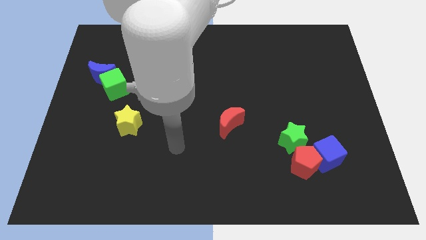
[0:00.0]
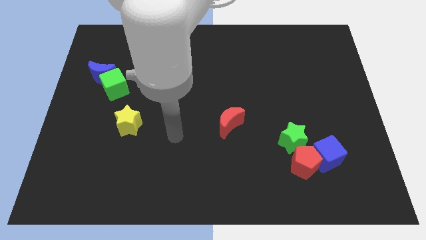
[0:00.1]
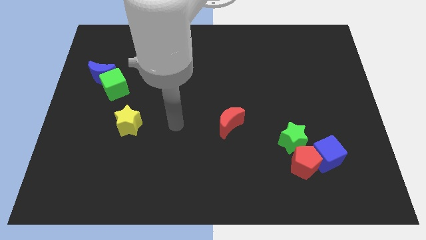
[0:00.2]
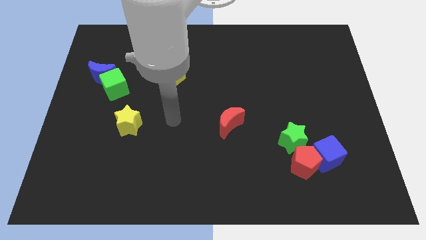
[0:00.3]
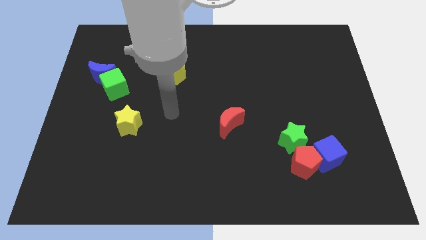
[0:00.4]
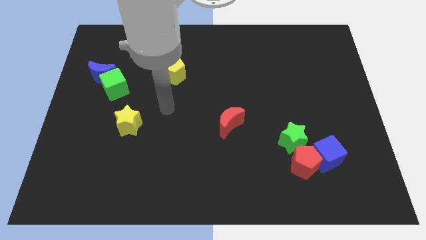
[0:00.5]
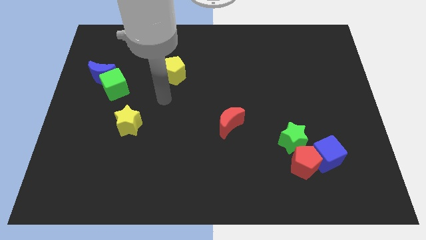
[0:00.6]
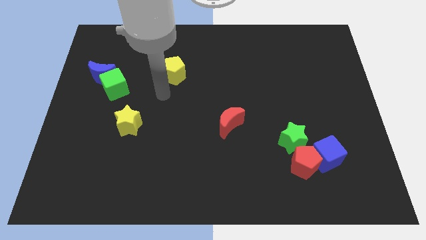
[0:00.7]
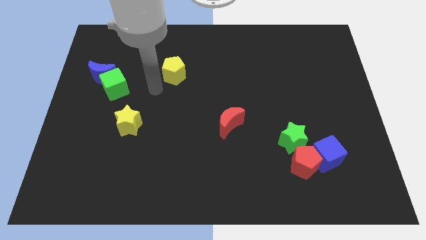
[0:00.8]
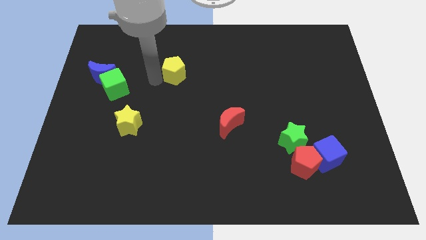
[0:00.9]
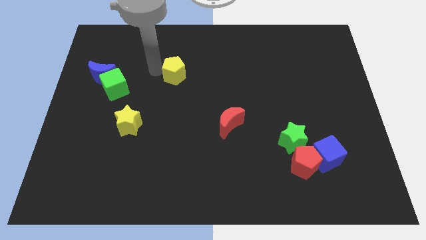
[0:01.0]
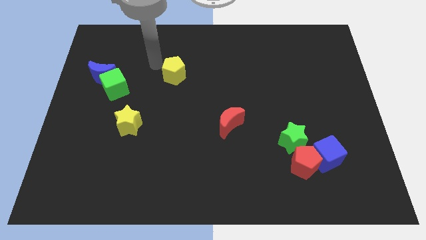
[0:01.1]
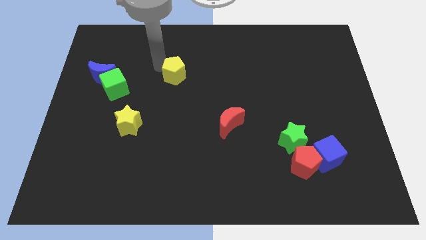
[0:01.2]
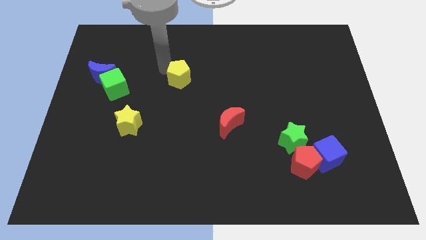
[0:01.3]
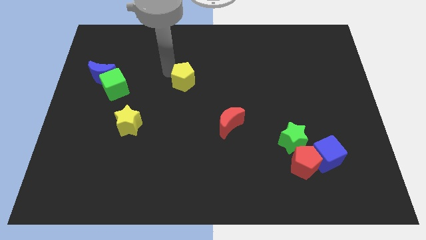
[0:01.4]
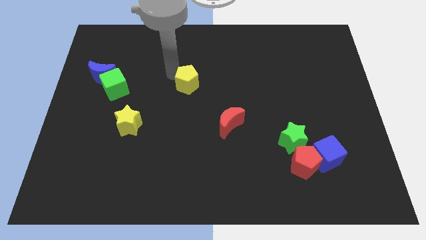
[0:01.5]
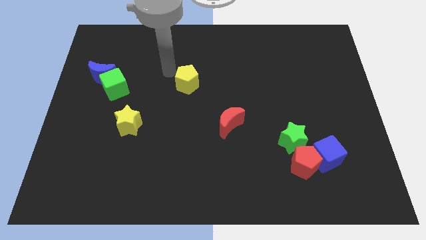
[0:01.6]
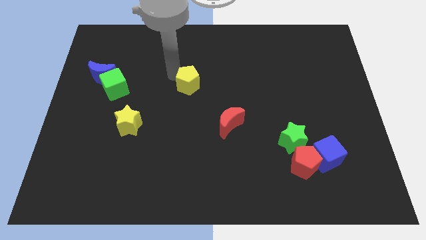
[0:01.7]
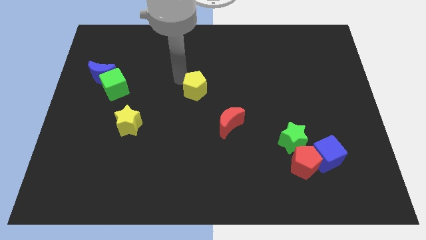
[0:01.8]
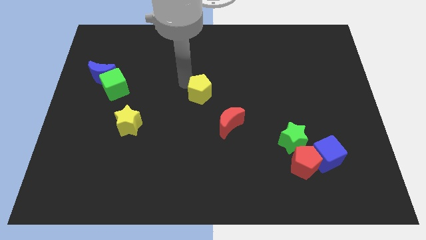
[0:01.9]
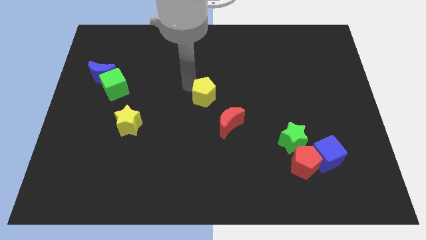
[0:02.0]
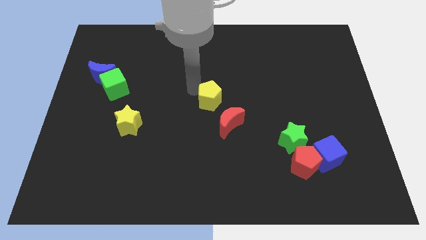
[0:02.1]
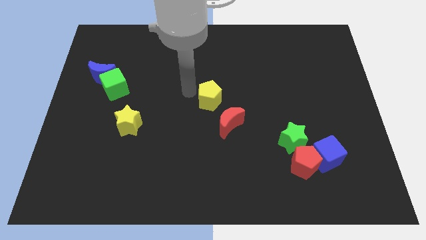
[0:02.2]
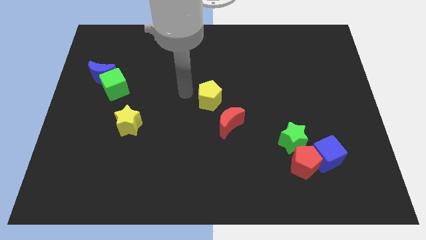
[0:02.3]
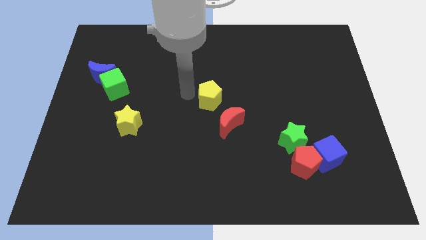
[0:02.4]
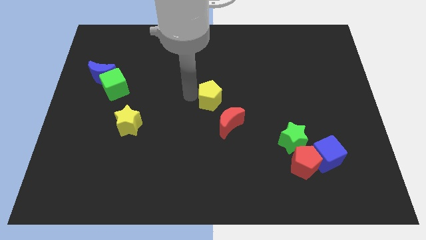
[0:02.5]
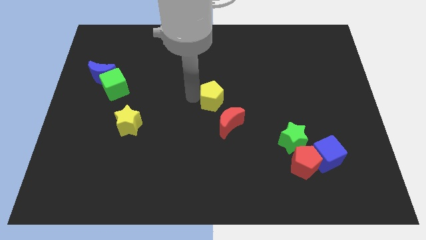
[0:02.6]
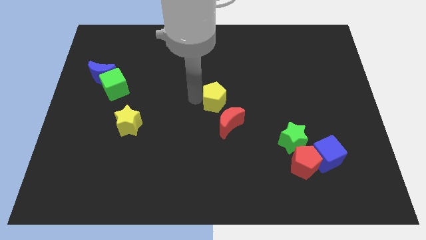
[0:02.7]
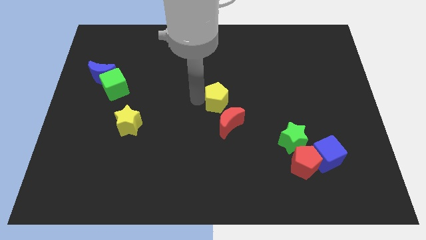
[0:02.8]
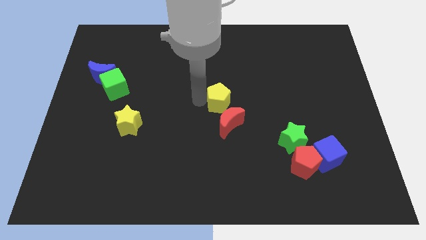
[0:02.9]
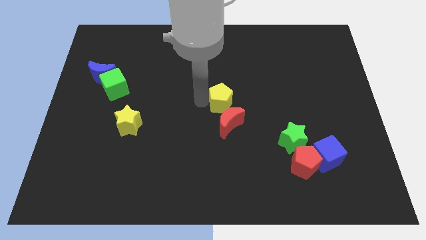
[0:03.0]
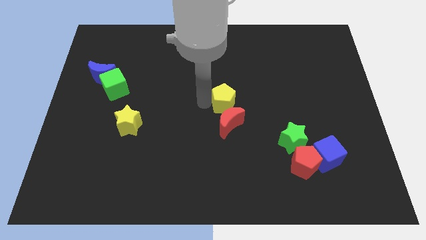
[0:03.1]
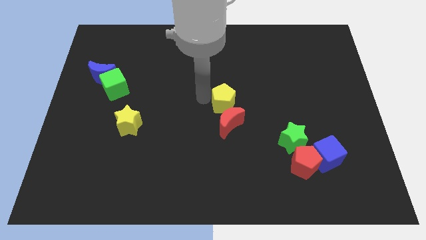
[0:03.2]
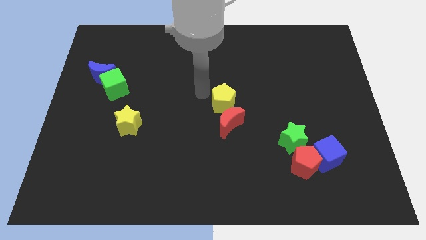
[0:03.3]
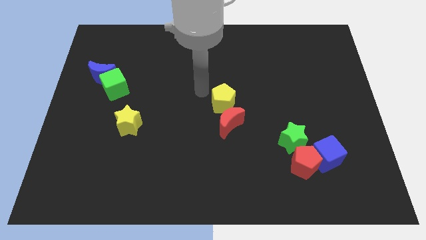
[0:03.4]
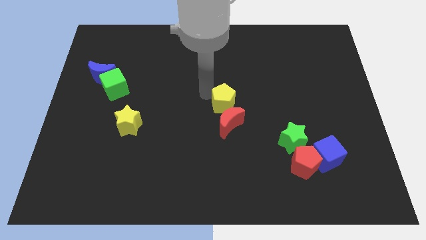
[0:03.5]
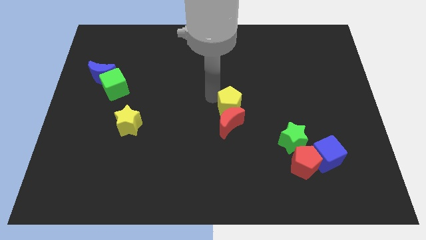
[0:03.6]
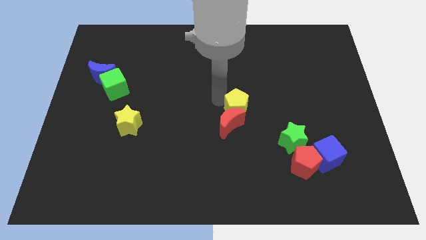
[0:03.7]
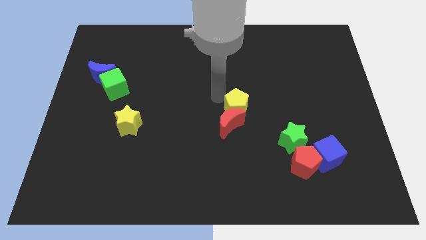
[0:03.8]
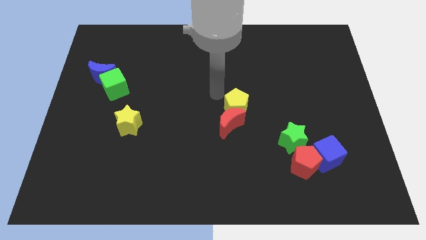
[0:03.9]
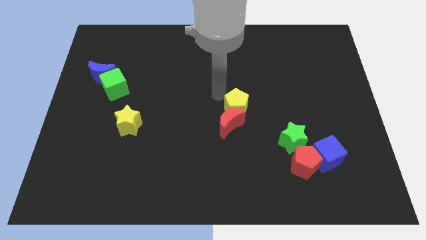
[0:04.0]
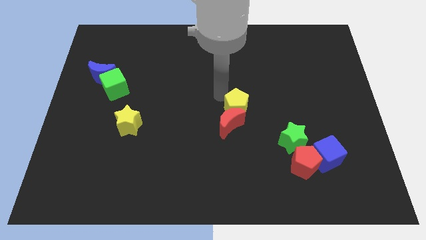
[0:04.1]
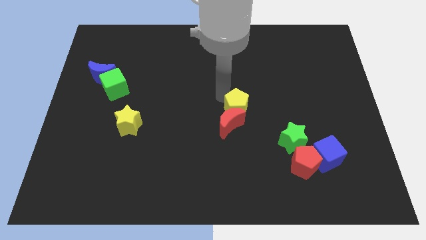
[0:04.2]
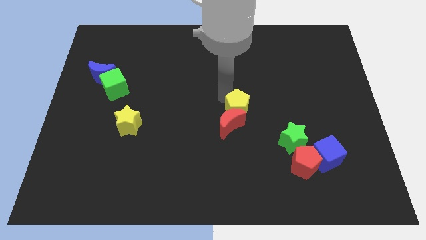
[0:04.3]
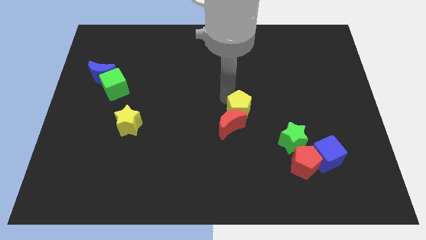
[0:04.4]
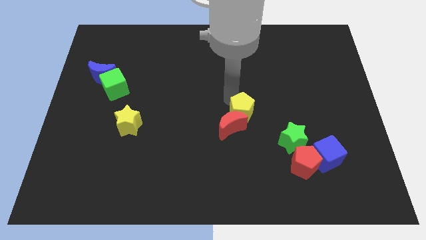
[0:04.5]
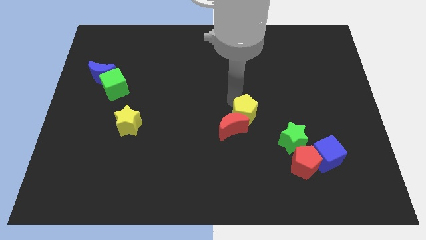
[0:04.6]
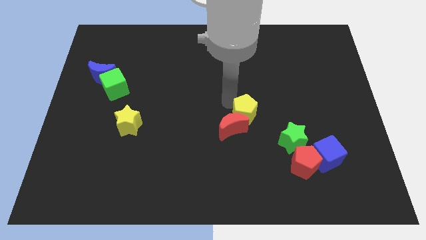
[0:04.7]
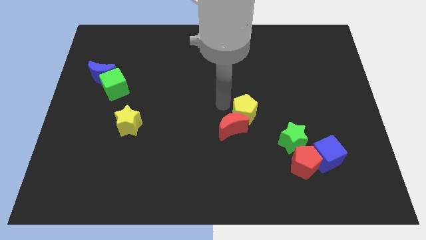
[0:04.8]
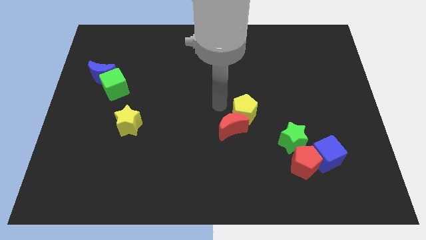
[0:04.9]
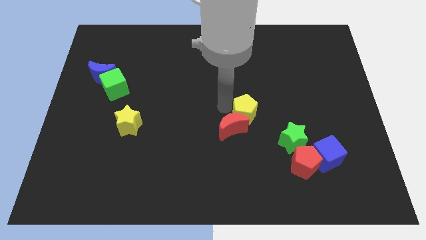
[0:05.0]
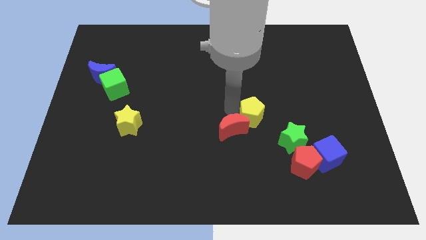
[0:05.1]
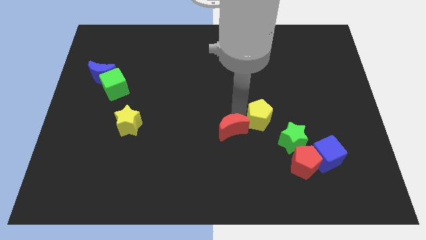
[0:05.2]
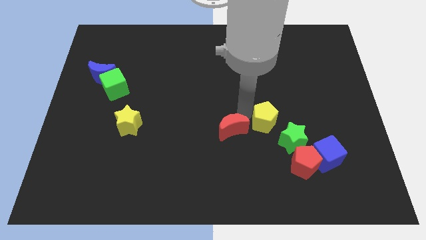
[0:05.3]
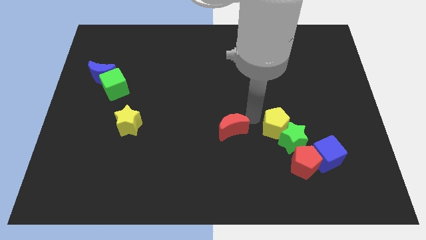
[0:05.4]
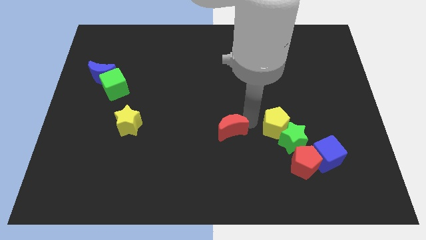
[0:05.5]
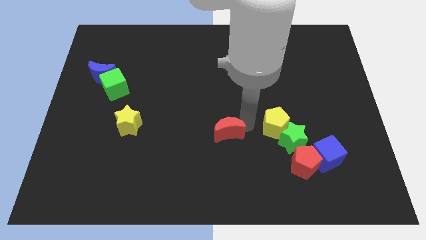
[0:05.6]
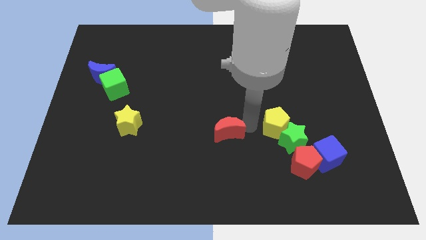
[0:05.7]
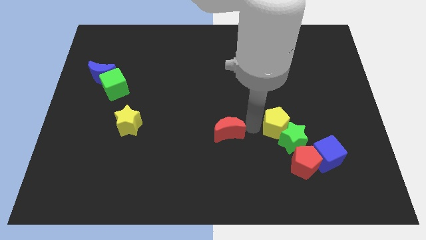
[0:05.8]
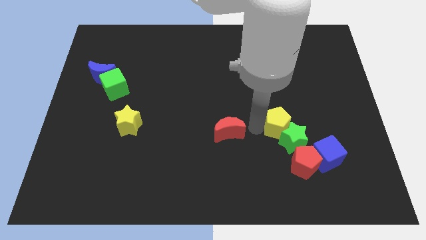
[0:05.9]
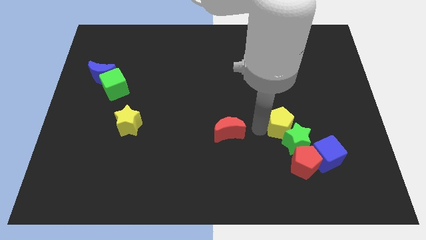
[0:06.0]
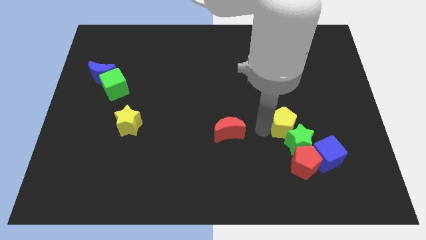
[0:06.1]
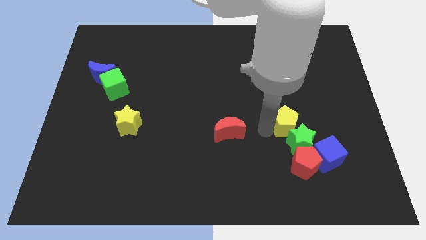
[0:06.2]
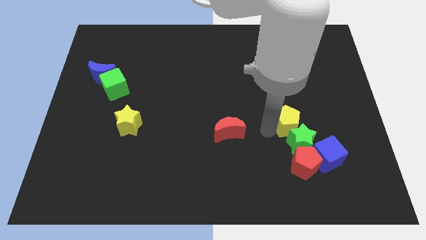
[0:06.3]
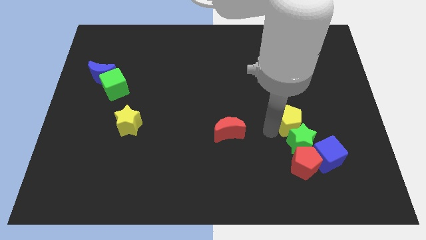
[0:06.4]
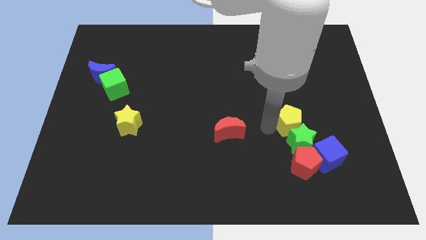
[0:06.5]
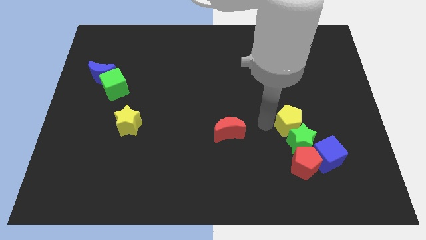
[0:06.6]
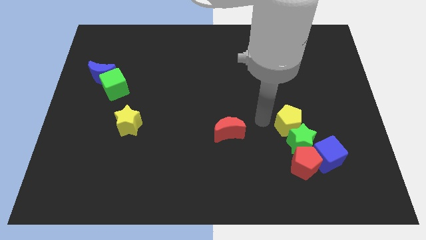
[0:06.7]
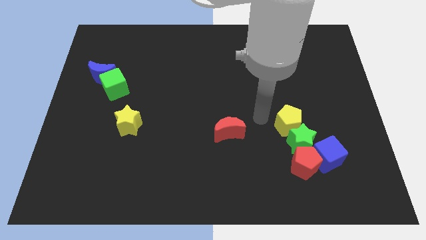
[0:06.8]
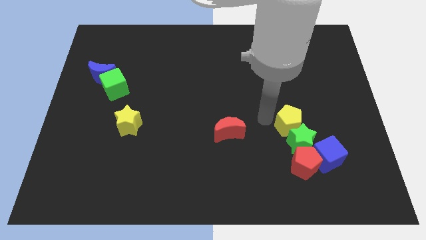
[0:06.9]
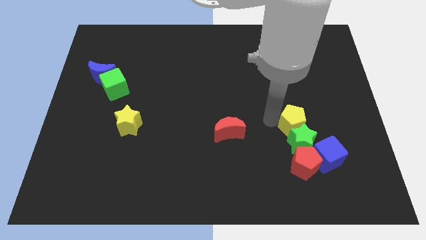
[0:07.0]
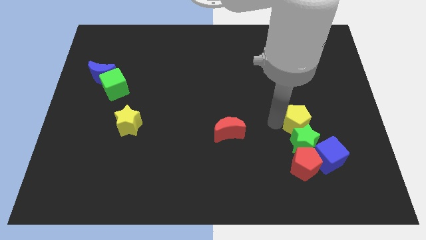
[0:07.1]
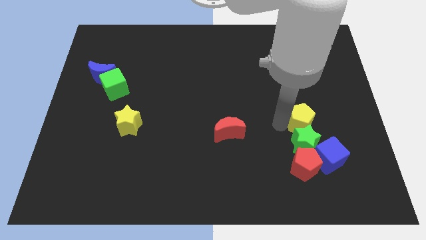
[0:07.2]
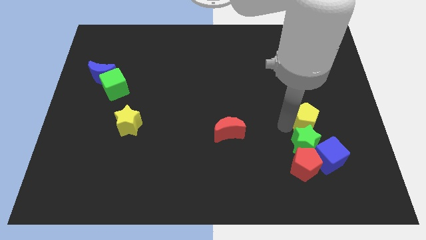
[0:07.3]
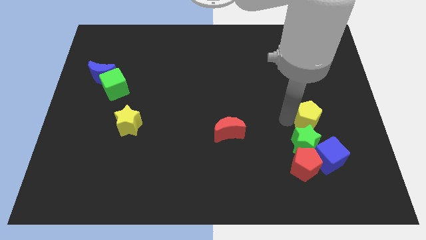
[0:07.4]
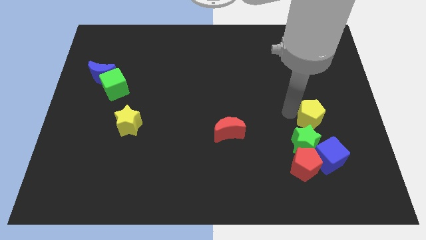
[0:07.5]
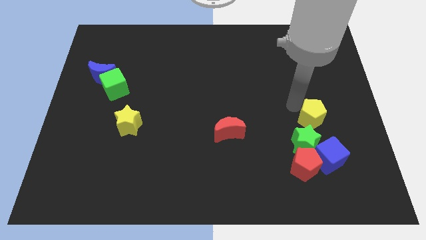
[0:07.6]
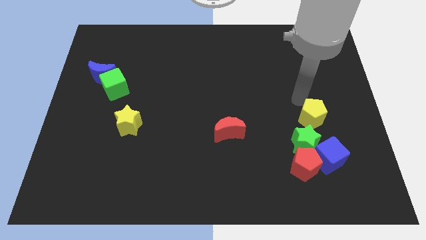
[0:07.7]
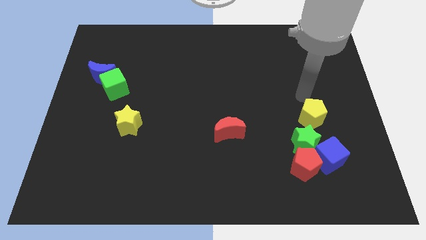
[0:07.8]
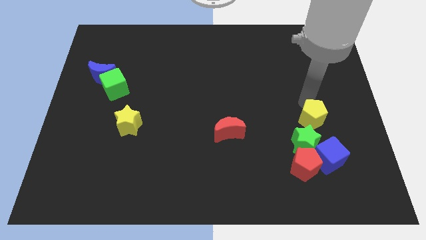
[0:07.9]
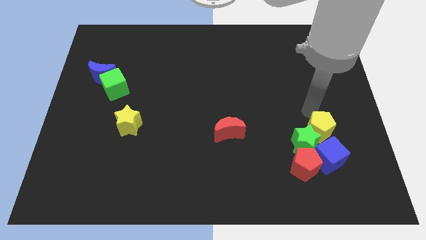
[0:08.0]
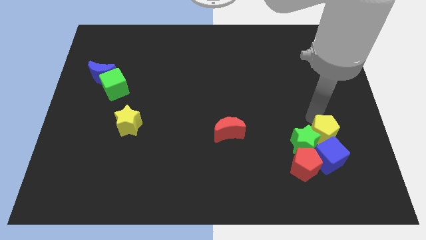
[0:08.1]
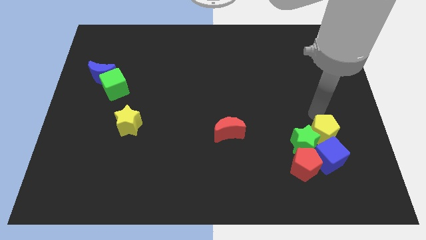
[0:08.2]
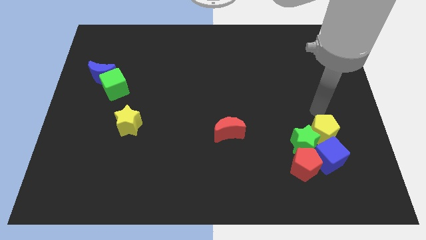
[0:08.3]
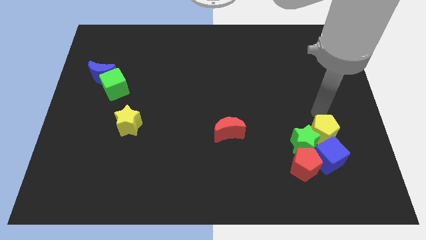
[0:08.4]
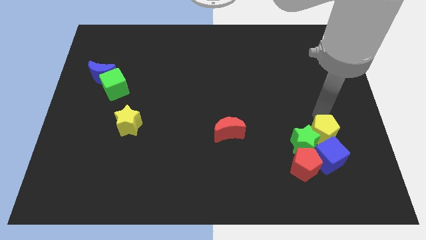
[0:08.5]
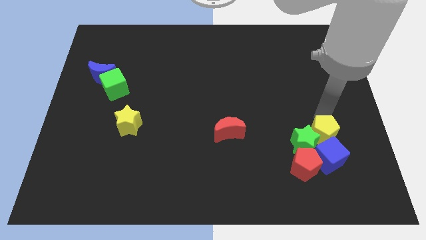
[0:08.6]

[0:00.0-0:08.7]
slide the yellow pentagon next to the blue cube
